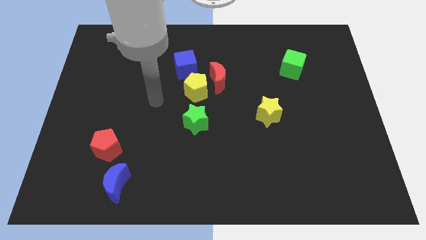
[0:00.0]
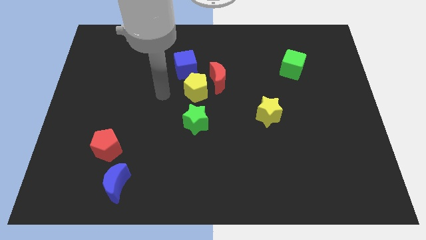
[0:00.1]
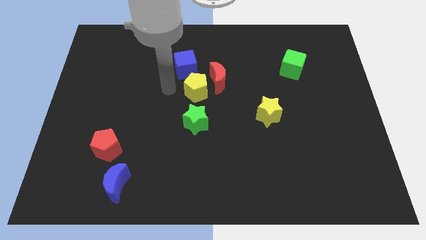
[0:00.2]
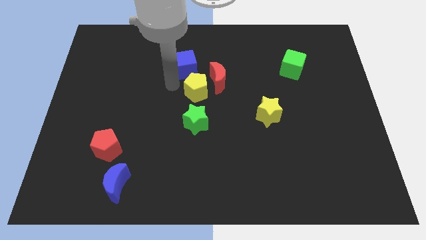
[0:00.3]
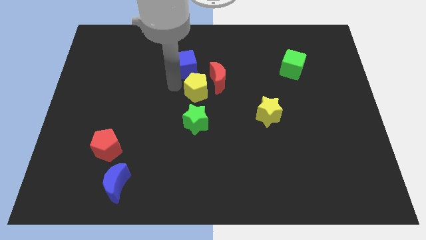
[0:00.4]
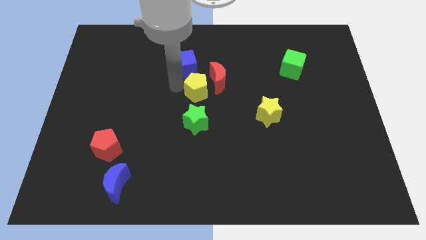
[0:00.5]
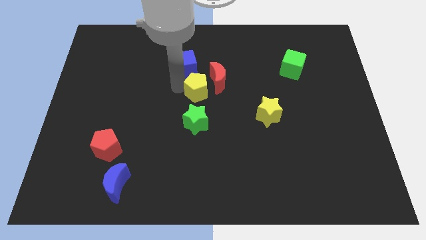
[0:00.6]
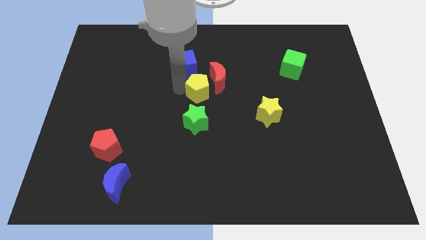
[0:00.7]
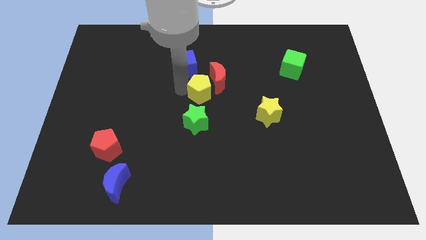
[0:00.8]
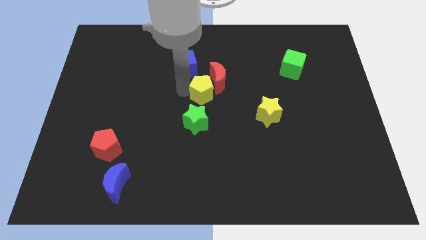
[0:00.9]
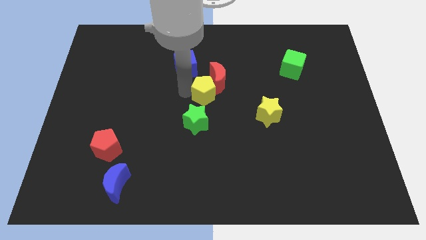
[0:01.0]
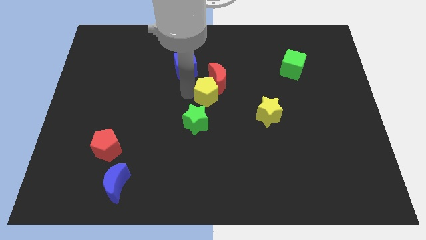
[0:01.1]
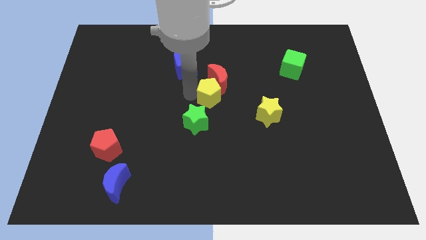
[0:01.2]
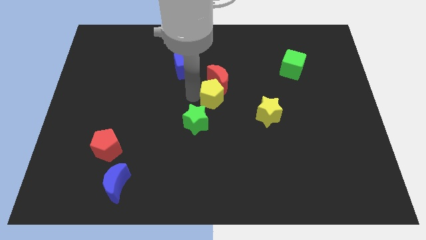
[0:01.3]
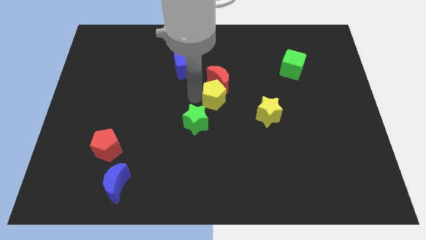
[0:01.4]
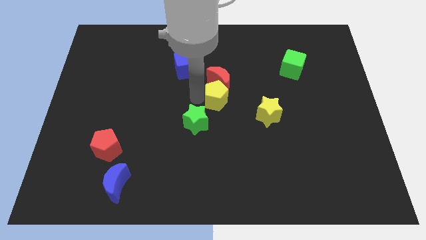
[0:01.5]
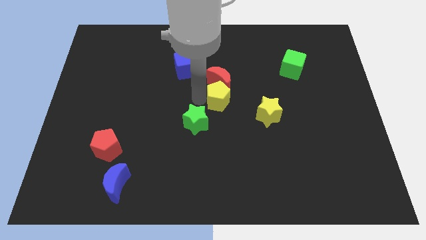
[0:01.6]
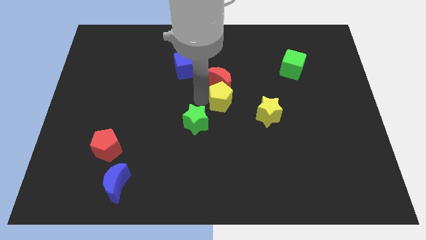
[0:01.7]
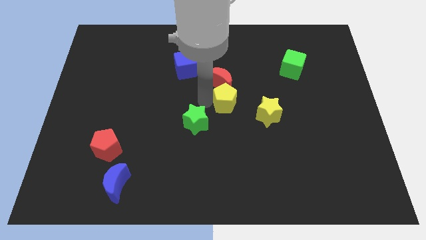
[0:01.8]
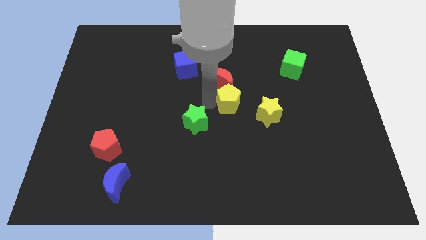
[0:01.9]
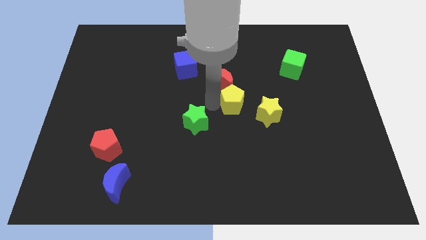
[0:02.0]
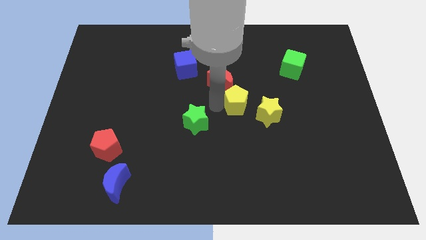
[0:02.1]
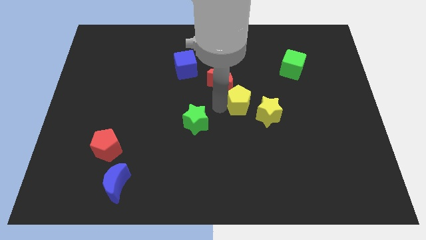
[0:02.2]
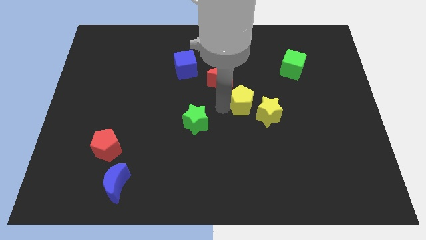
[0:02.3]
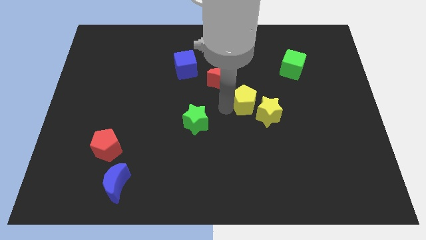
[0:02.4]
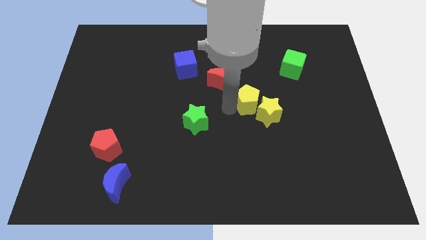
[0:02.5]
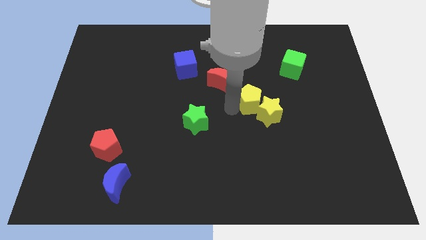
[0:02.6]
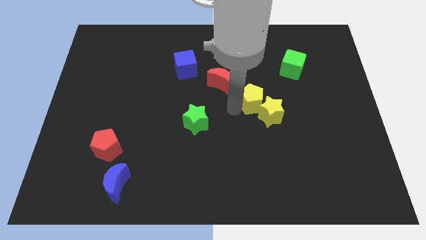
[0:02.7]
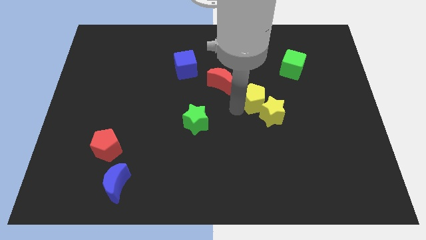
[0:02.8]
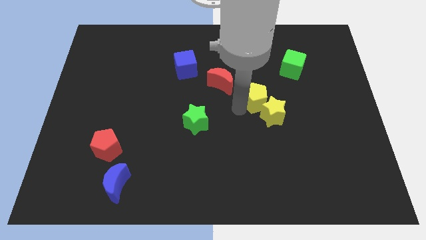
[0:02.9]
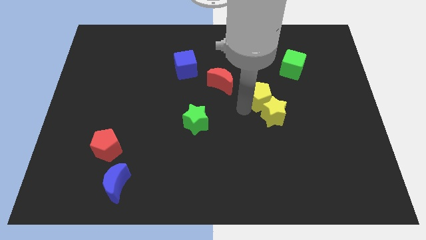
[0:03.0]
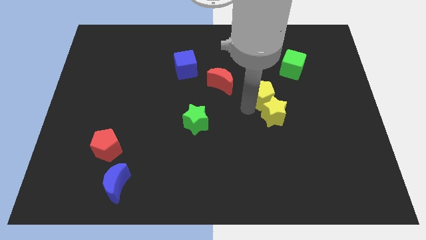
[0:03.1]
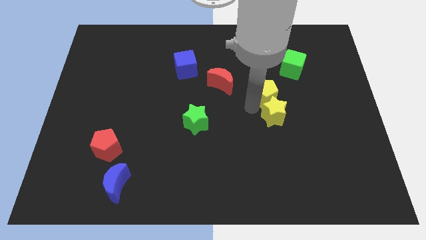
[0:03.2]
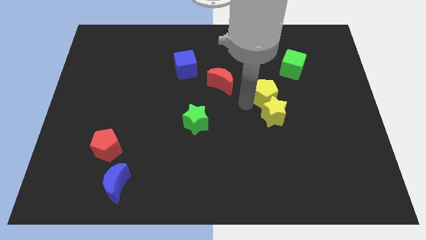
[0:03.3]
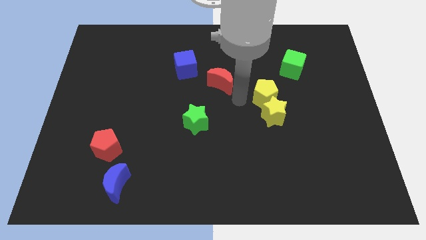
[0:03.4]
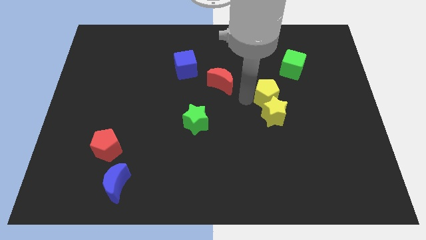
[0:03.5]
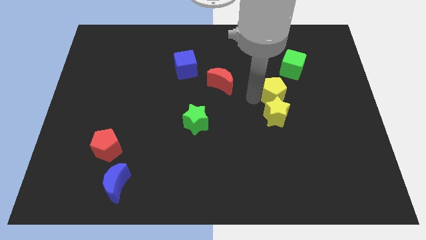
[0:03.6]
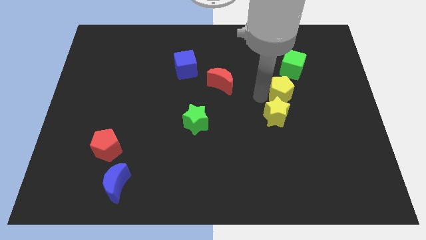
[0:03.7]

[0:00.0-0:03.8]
push the yellow pentagon to the right

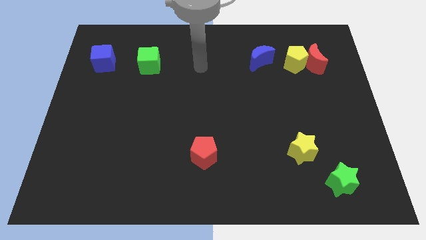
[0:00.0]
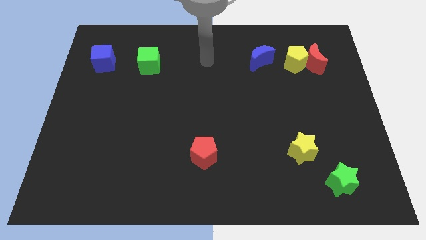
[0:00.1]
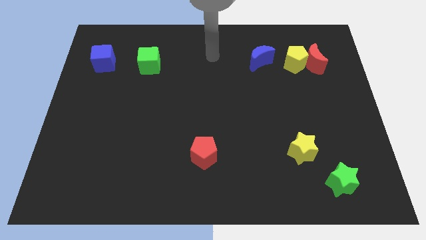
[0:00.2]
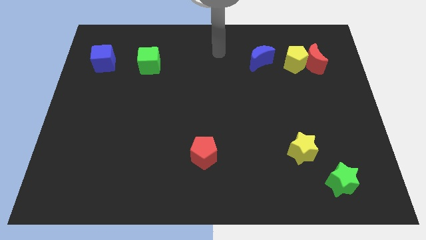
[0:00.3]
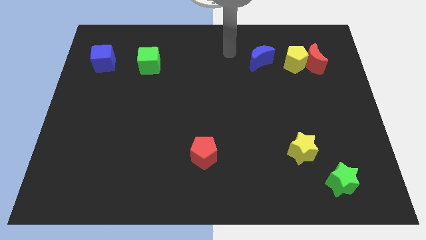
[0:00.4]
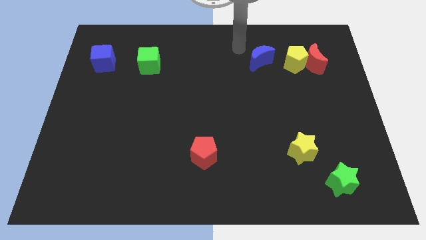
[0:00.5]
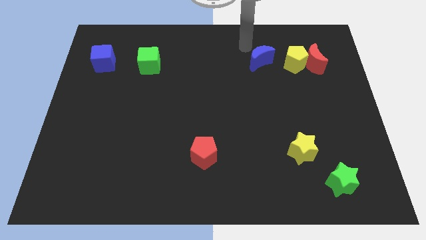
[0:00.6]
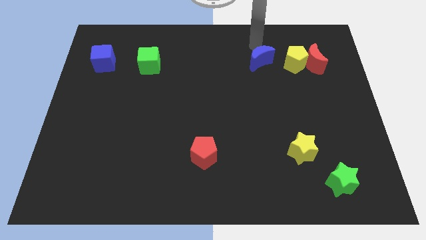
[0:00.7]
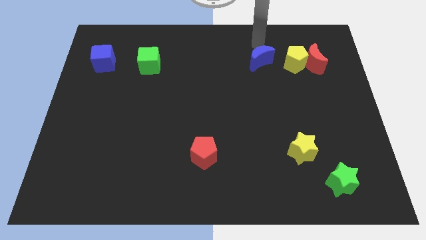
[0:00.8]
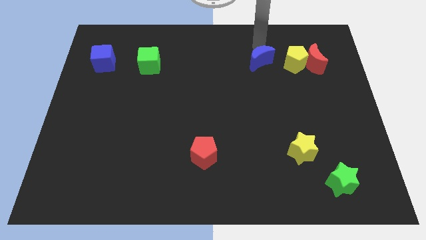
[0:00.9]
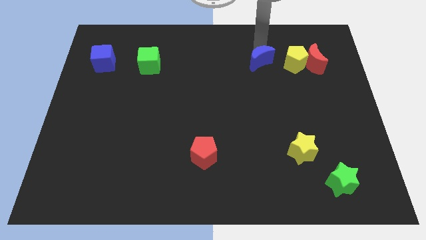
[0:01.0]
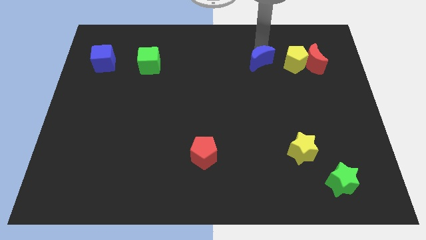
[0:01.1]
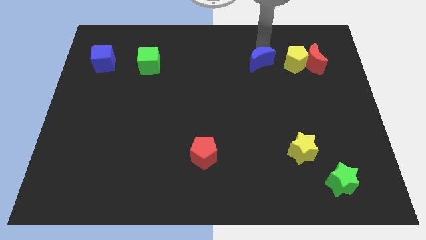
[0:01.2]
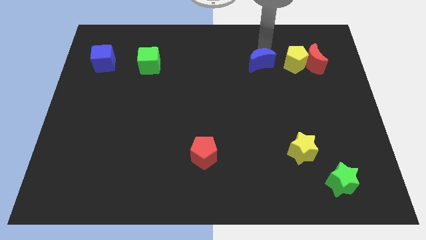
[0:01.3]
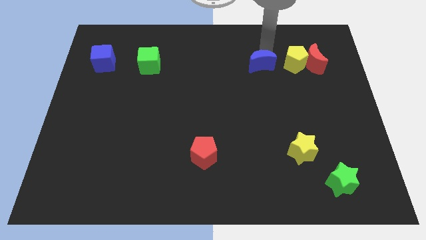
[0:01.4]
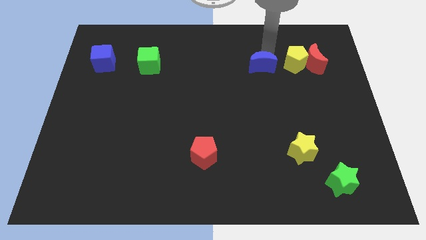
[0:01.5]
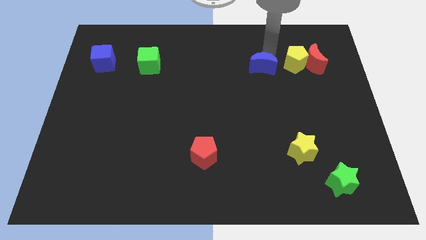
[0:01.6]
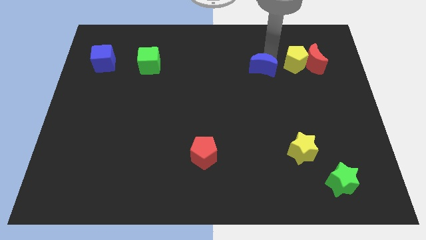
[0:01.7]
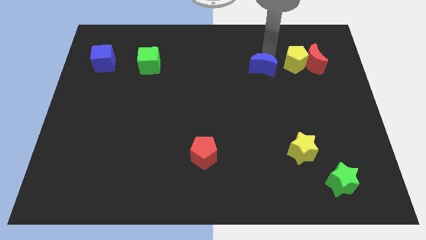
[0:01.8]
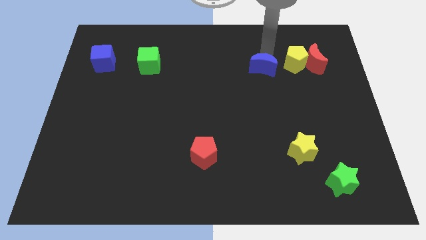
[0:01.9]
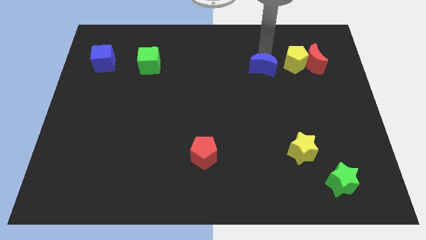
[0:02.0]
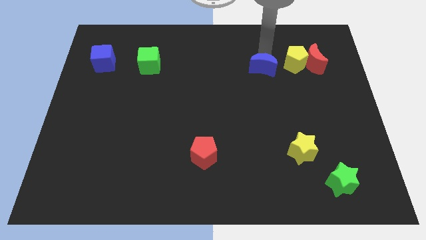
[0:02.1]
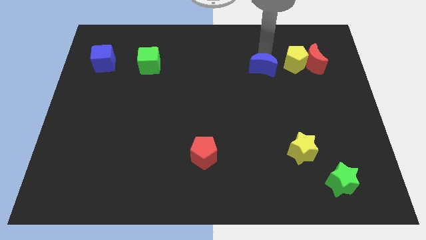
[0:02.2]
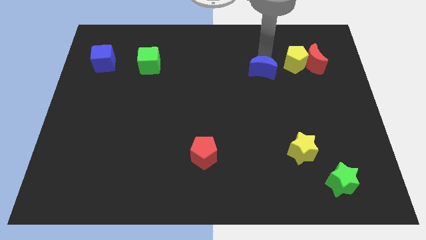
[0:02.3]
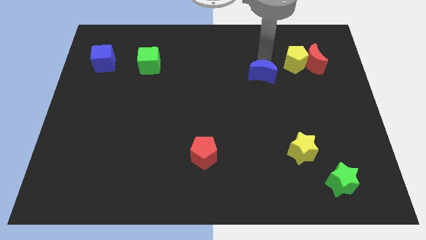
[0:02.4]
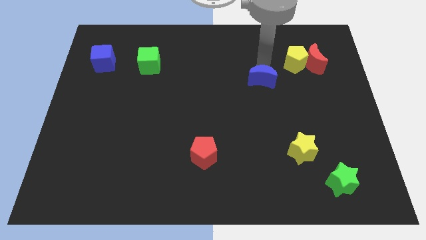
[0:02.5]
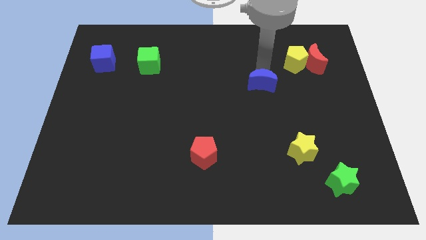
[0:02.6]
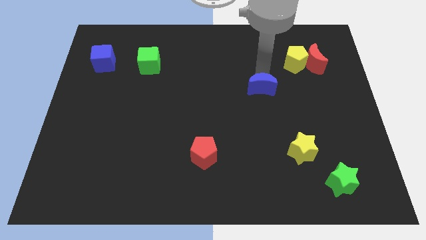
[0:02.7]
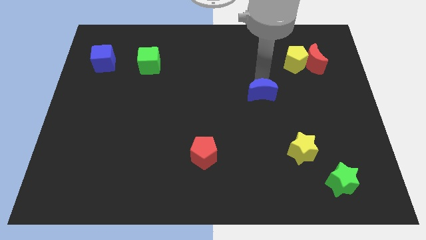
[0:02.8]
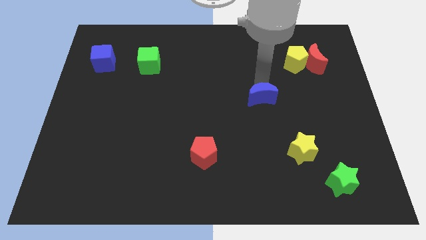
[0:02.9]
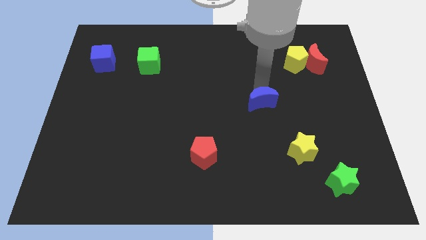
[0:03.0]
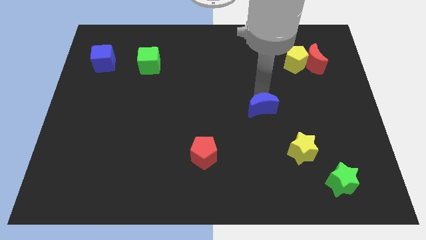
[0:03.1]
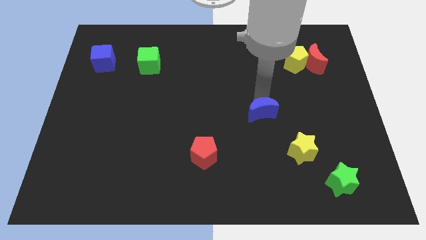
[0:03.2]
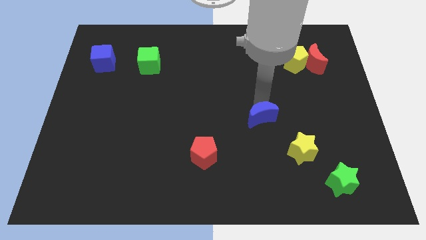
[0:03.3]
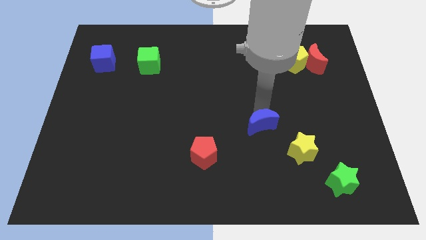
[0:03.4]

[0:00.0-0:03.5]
push the blue moon downwards
